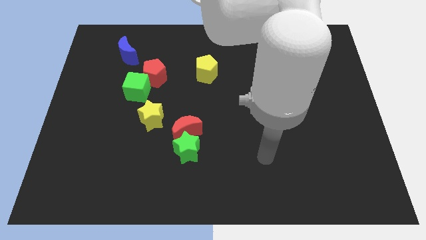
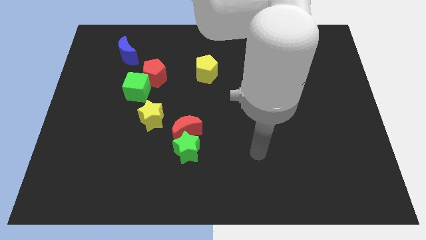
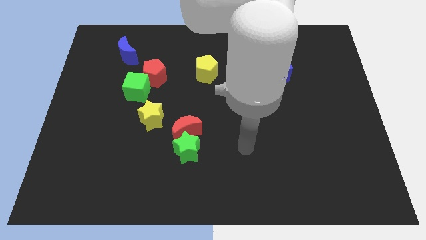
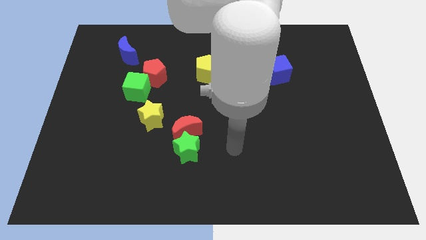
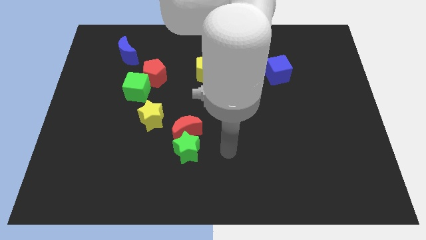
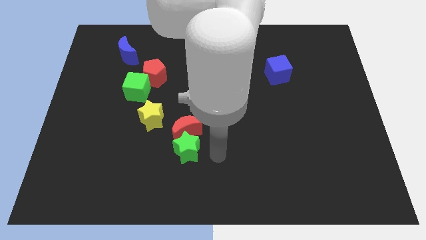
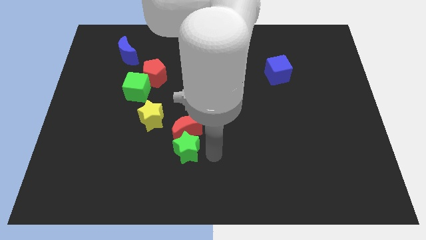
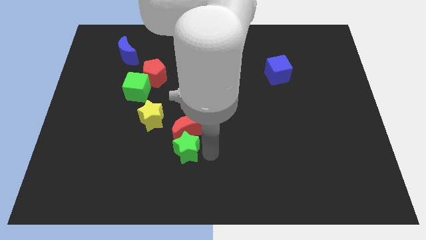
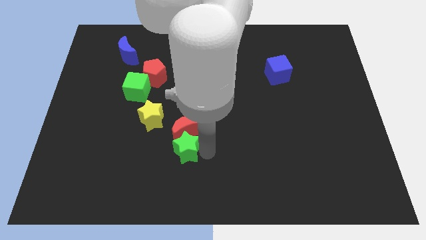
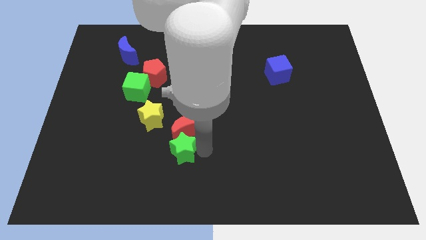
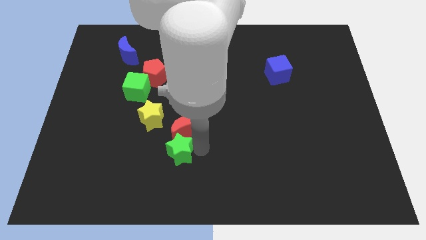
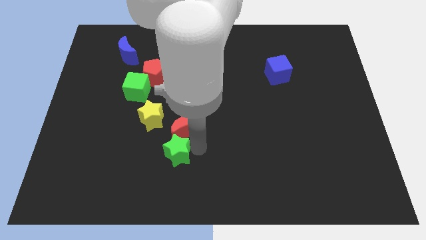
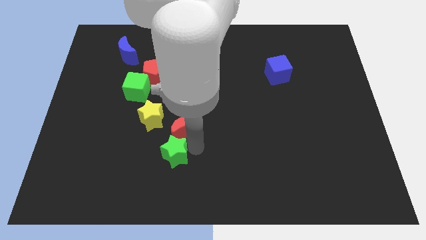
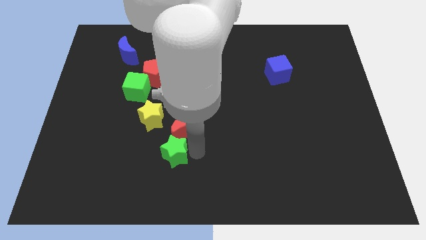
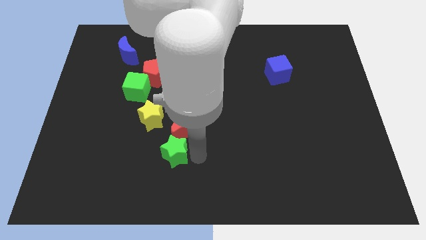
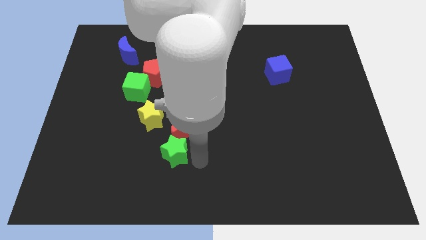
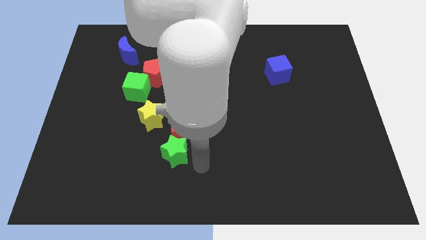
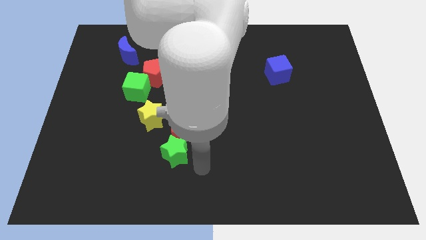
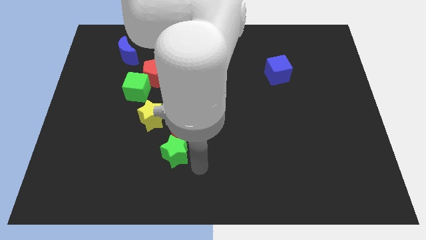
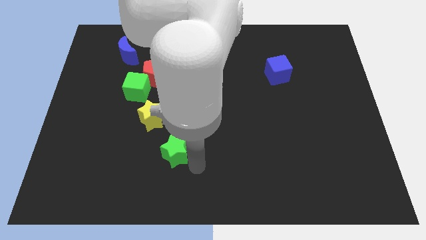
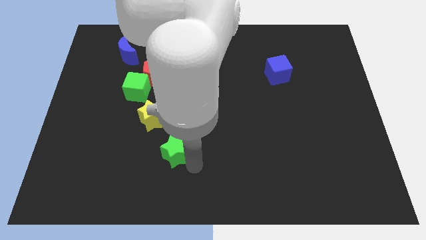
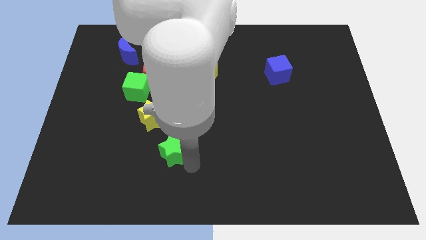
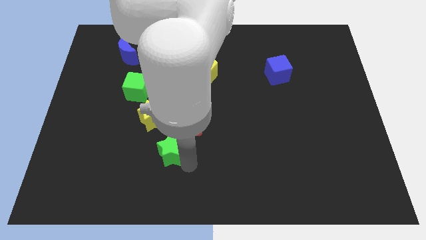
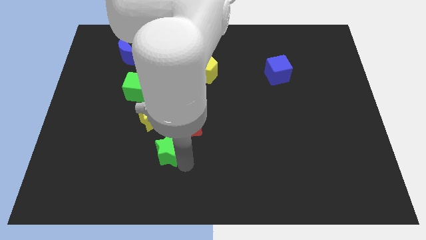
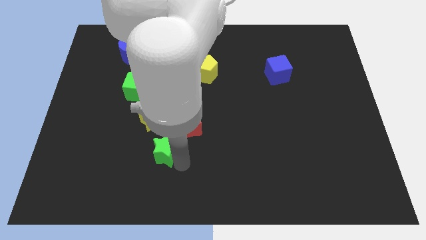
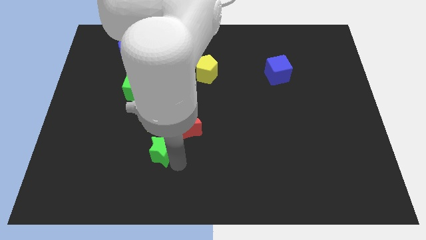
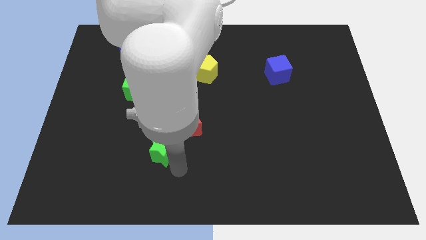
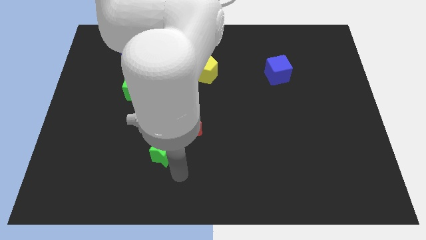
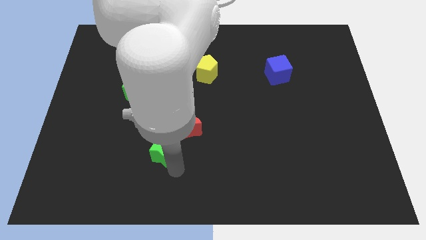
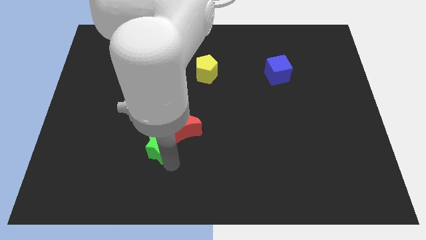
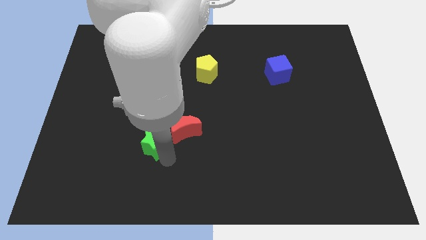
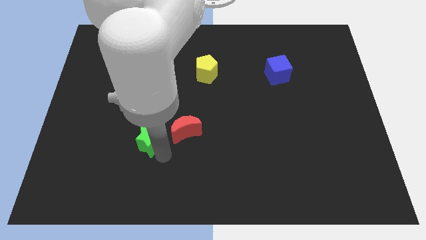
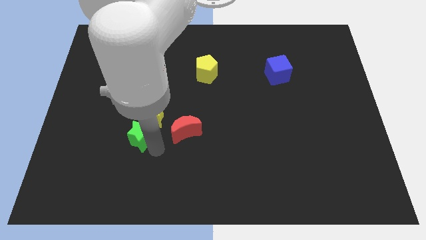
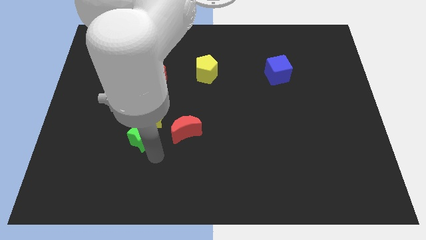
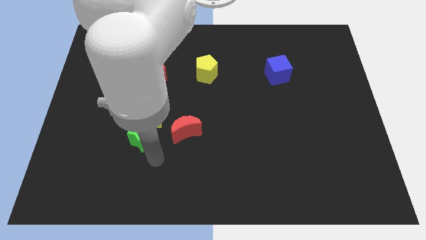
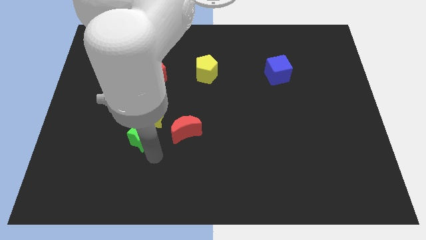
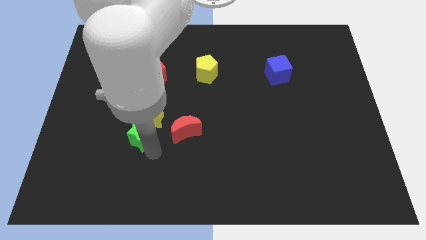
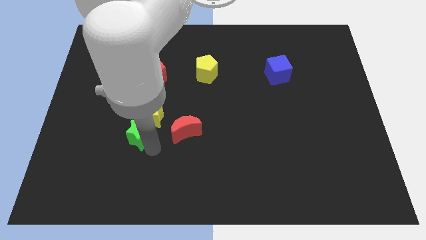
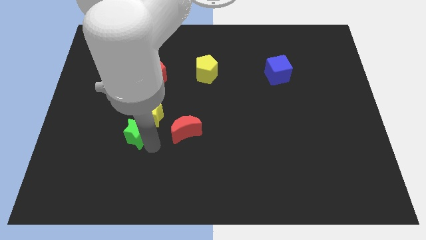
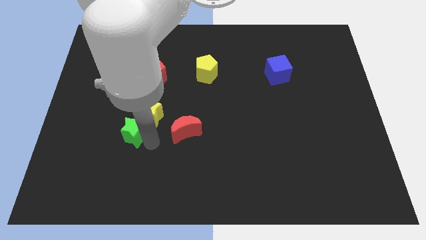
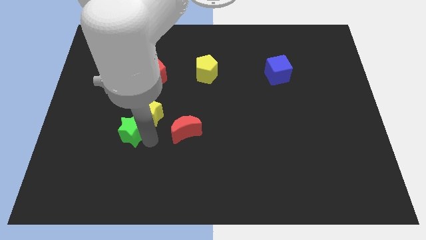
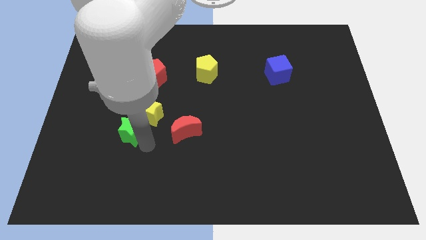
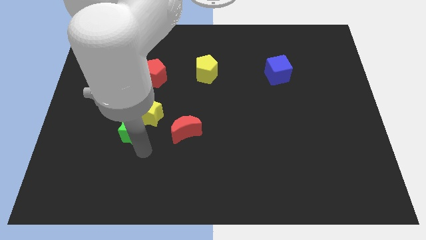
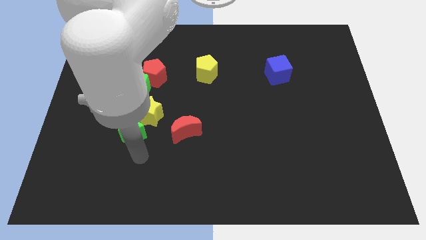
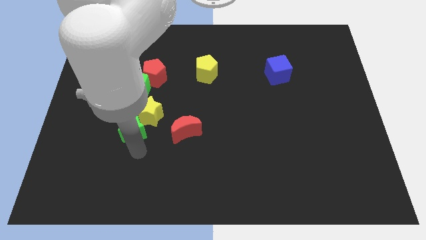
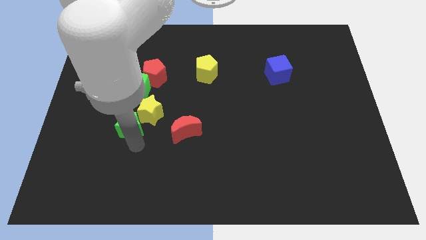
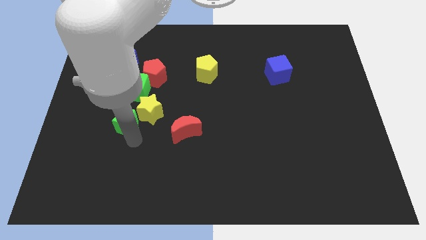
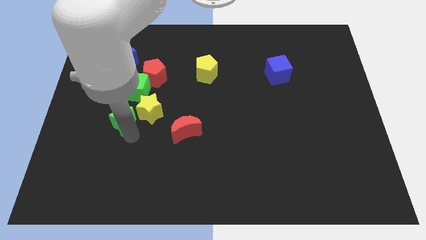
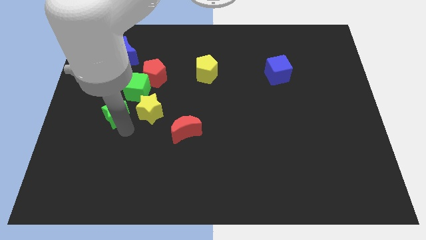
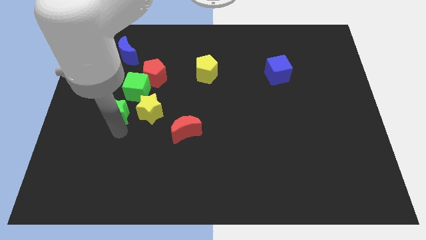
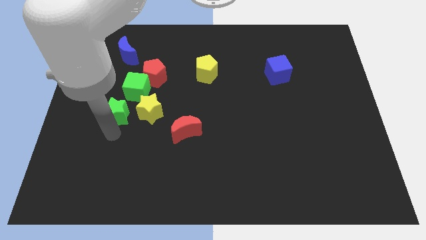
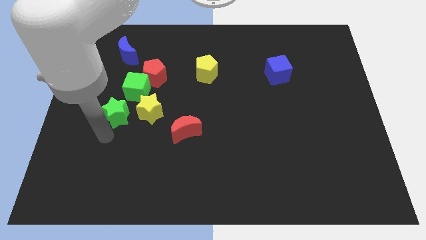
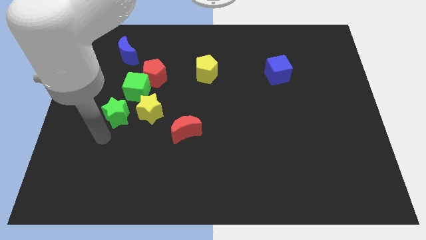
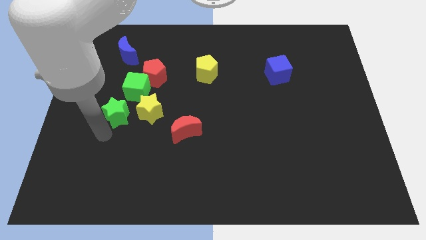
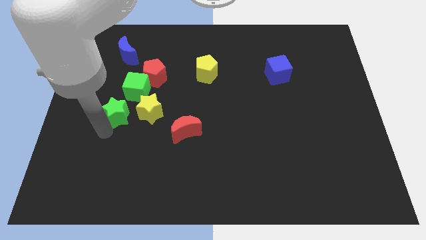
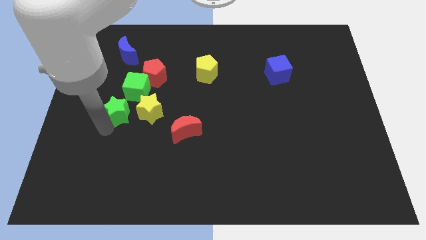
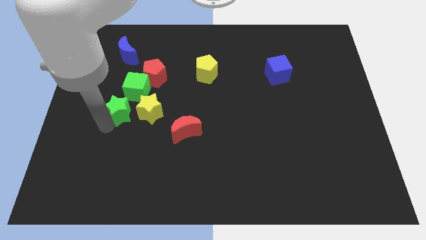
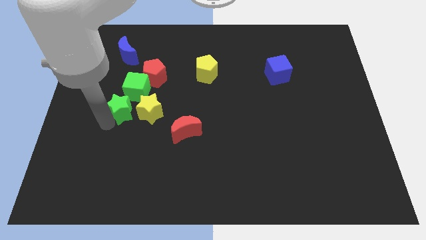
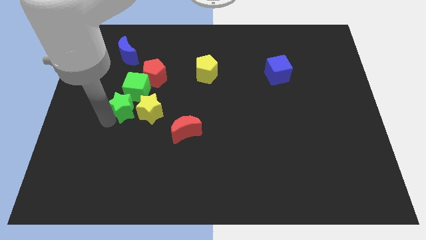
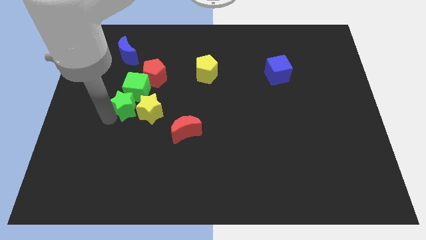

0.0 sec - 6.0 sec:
move the green star to the bottom left of the red pentagon

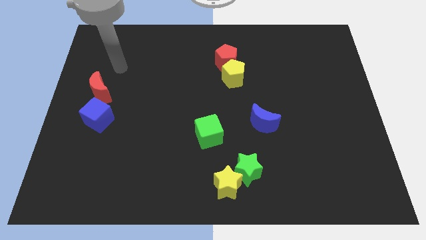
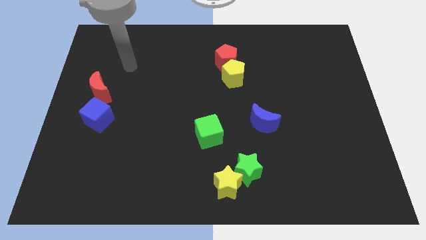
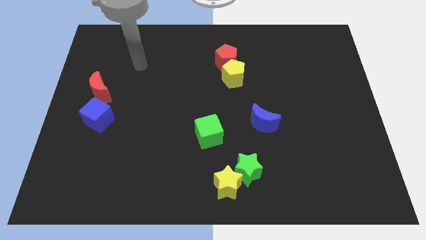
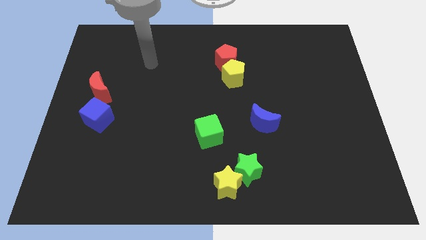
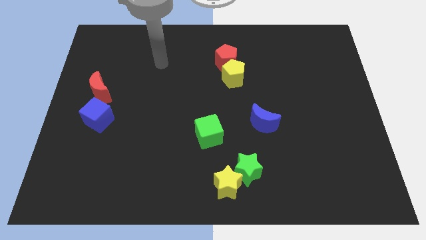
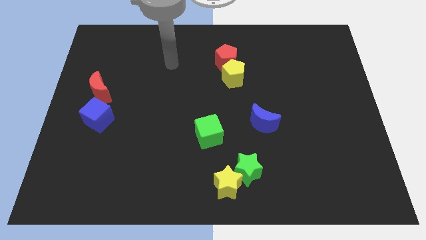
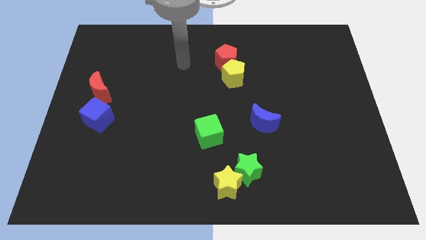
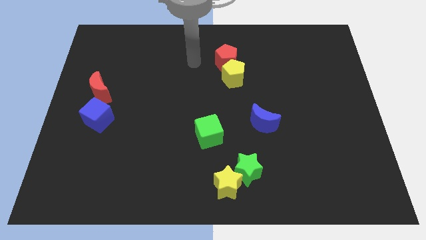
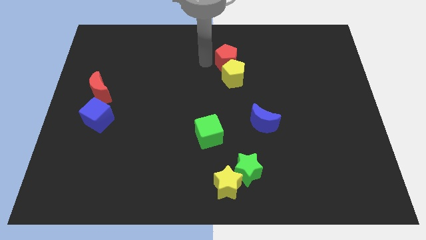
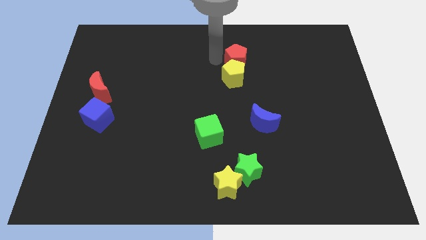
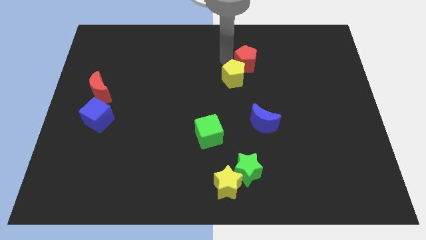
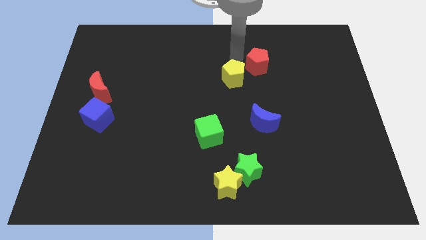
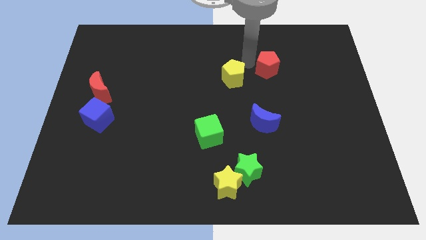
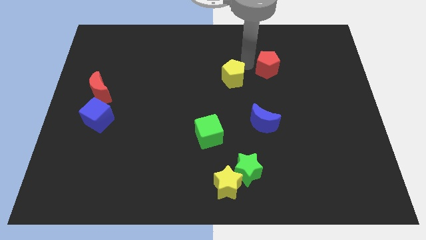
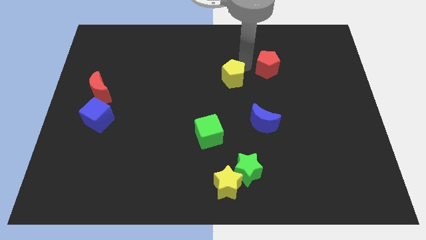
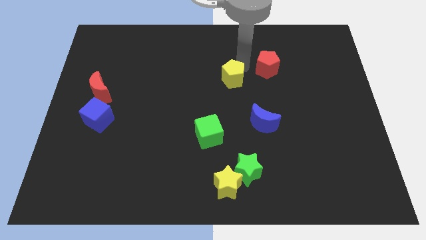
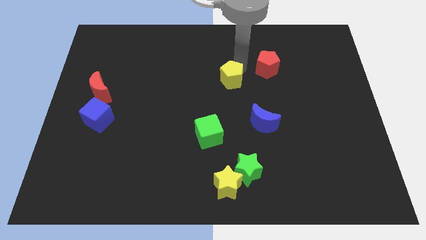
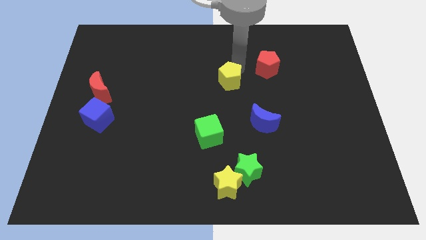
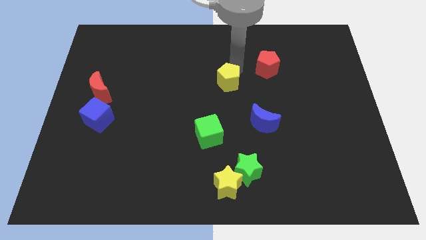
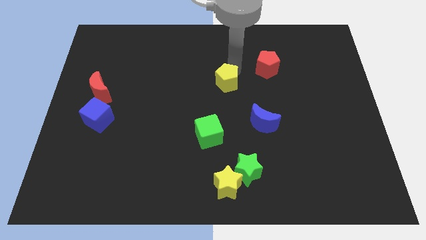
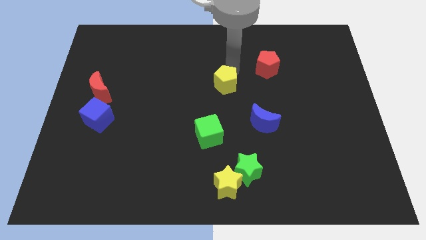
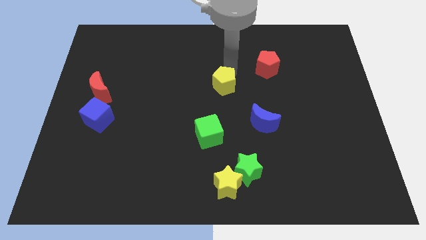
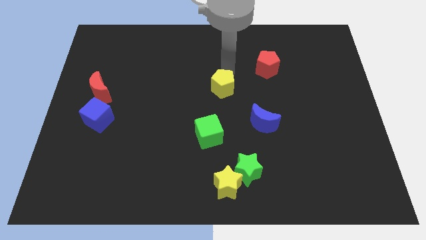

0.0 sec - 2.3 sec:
push the yellow pentagon above the green cube
